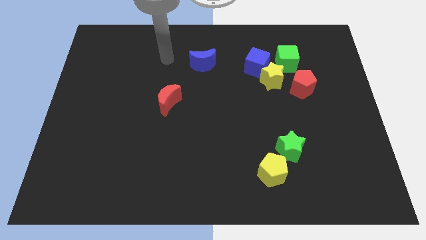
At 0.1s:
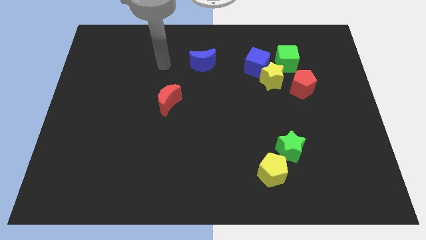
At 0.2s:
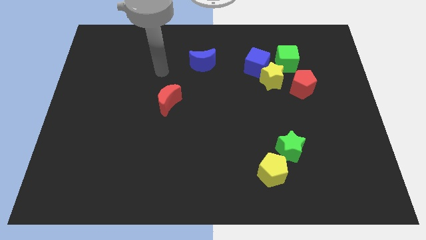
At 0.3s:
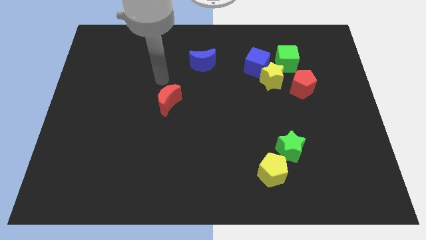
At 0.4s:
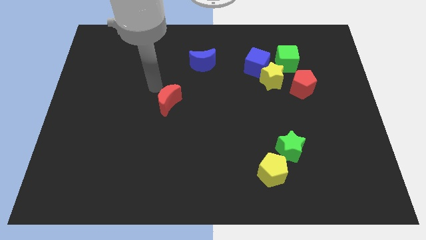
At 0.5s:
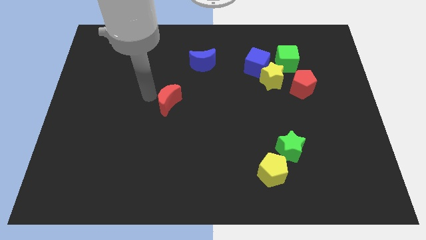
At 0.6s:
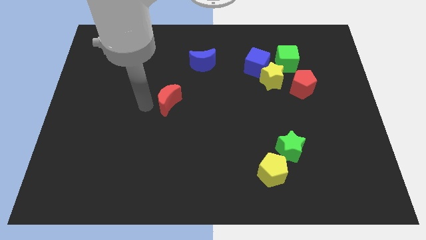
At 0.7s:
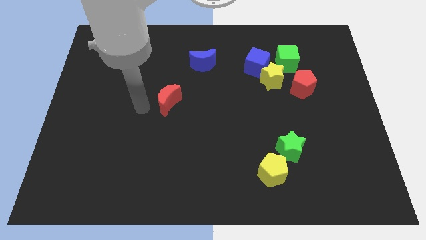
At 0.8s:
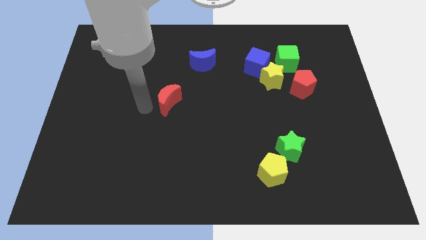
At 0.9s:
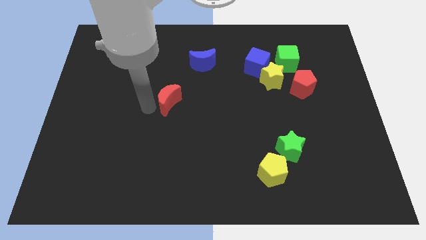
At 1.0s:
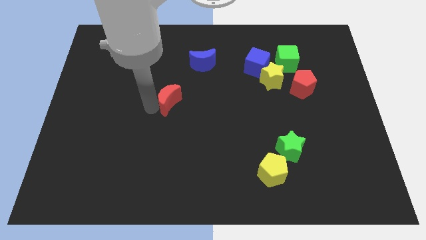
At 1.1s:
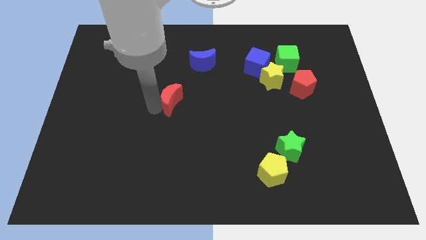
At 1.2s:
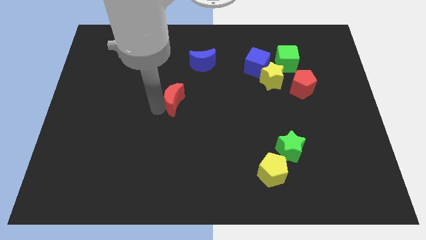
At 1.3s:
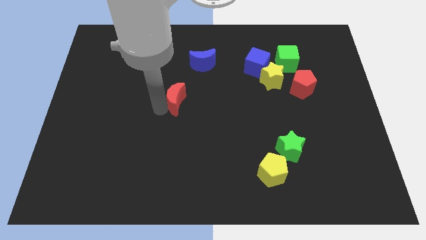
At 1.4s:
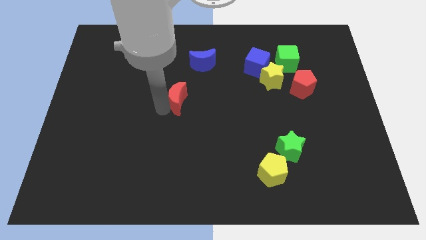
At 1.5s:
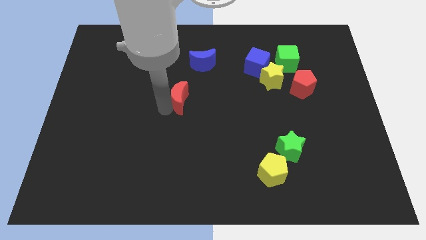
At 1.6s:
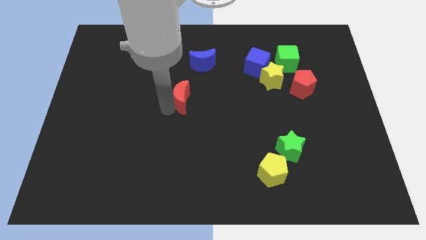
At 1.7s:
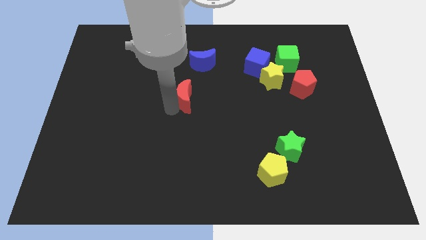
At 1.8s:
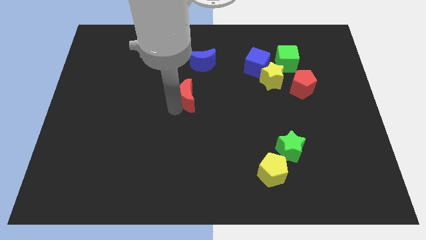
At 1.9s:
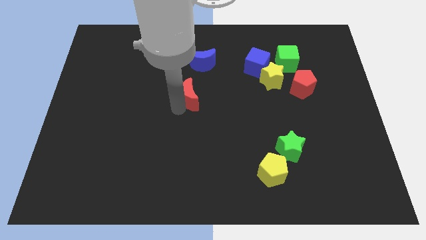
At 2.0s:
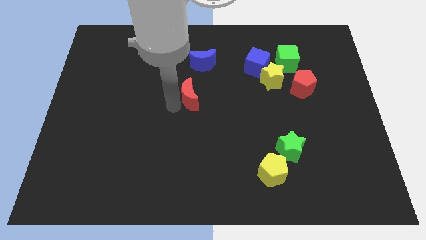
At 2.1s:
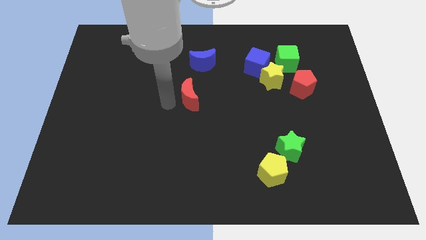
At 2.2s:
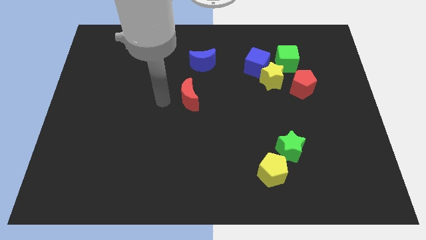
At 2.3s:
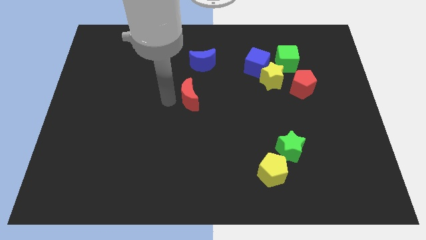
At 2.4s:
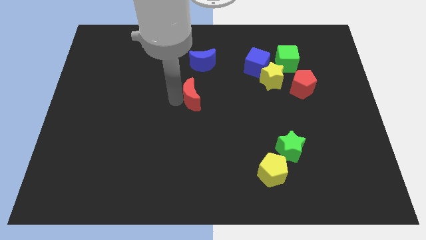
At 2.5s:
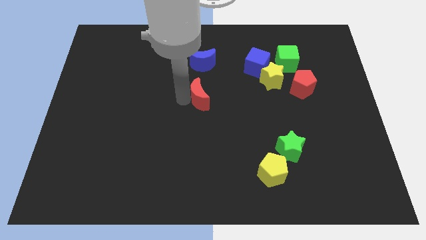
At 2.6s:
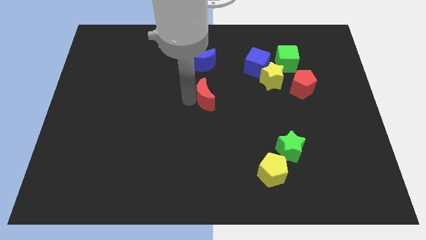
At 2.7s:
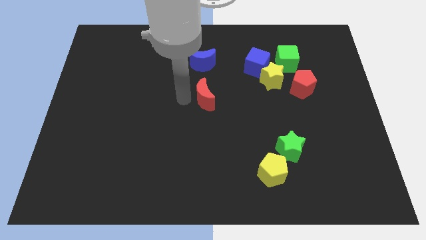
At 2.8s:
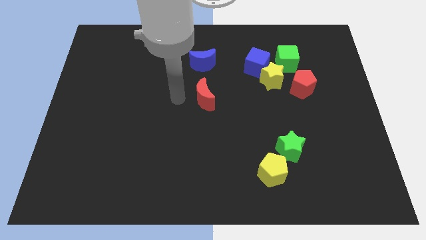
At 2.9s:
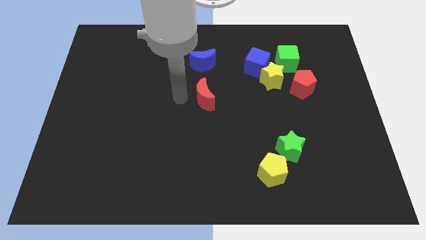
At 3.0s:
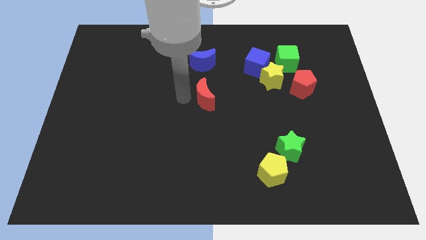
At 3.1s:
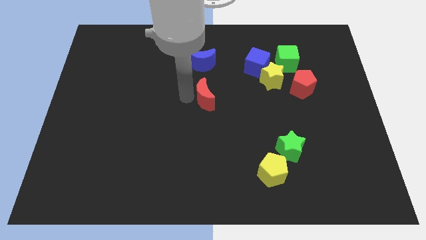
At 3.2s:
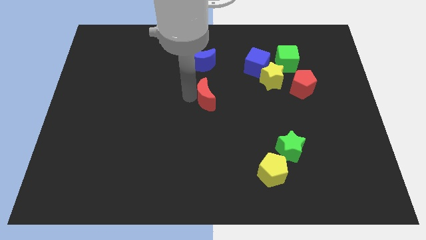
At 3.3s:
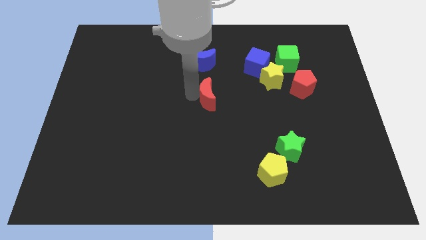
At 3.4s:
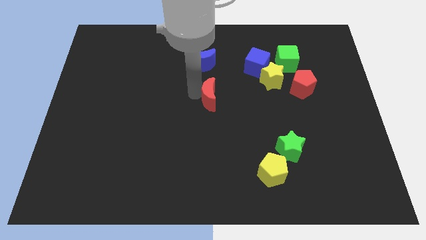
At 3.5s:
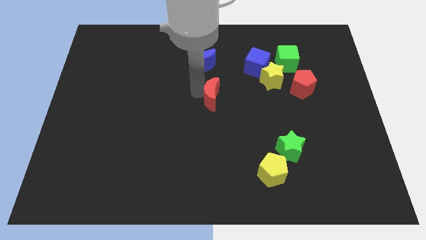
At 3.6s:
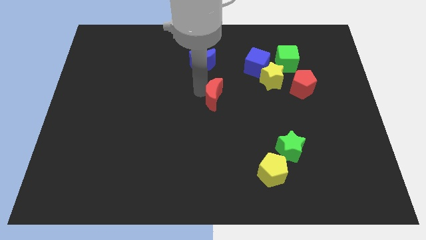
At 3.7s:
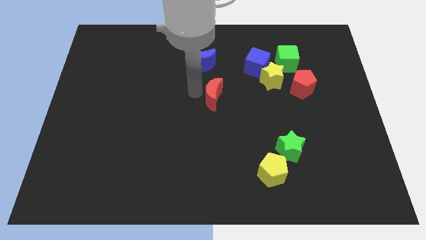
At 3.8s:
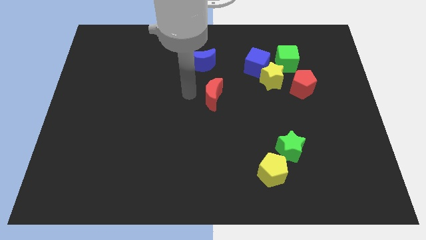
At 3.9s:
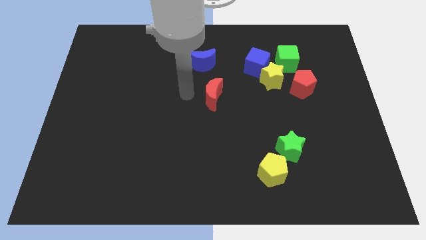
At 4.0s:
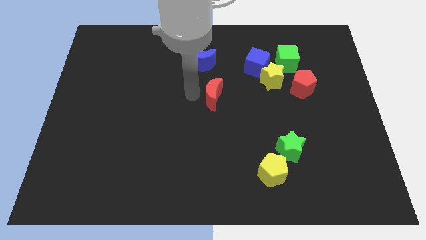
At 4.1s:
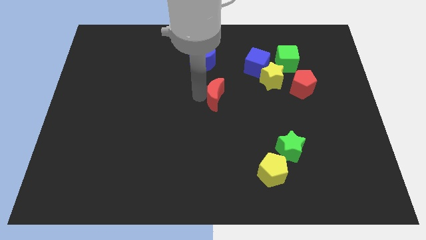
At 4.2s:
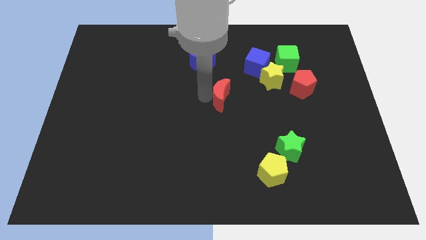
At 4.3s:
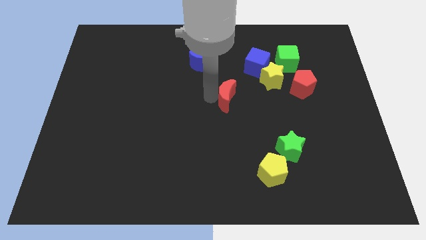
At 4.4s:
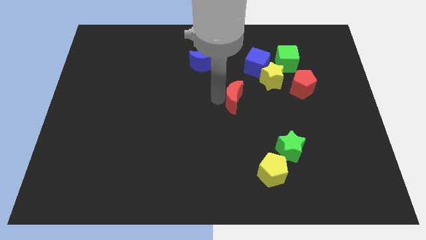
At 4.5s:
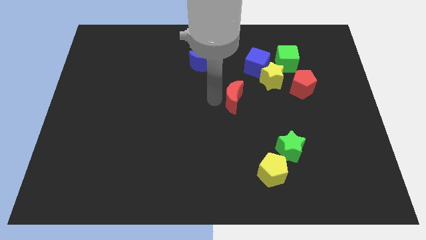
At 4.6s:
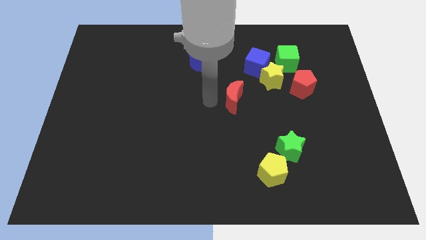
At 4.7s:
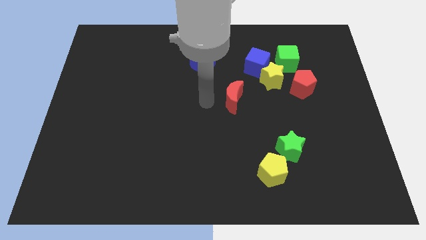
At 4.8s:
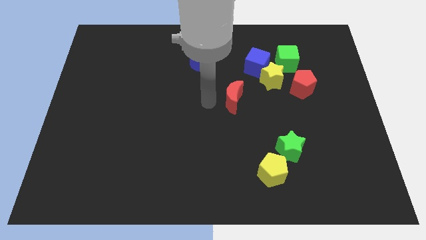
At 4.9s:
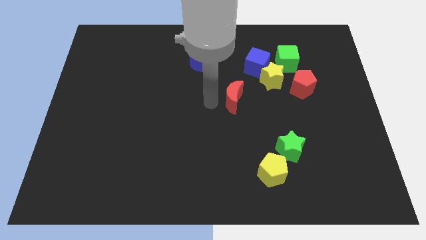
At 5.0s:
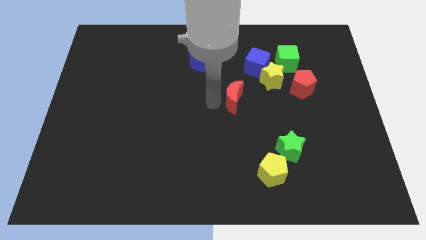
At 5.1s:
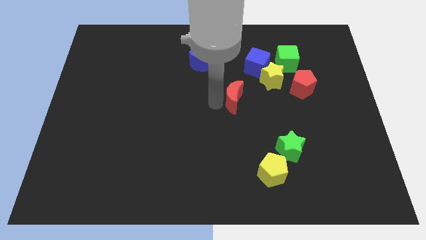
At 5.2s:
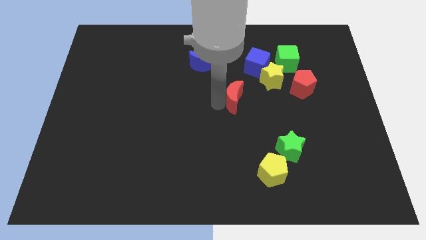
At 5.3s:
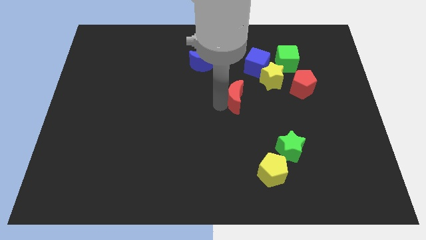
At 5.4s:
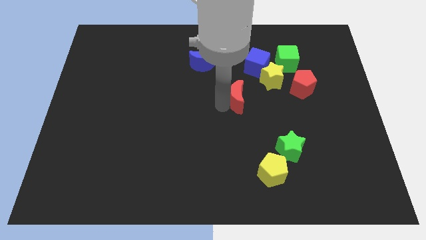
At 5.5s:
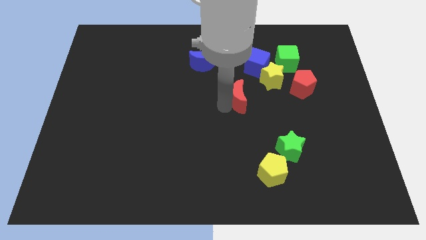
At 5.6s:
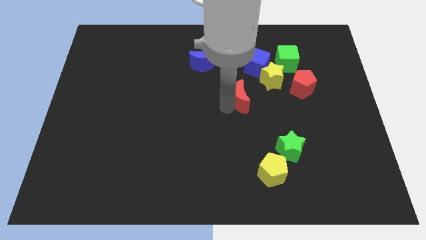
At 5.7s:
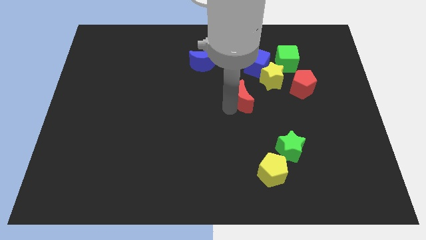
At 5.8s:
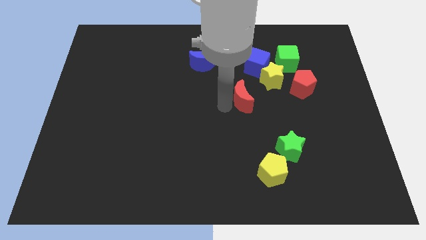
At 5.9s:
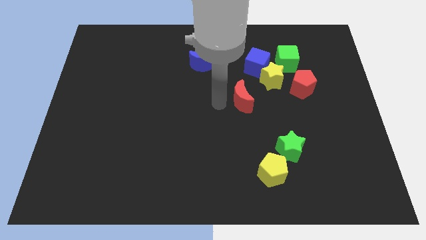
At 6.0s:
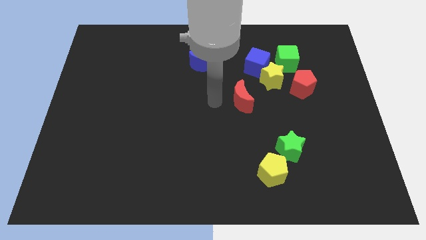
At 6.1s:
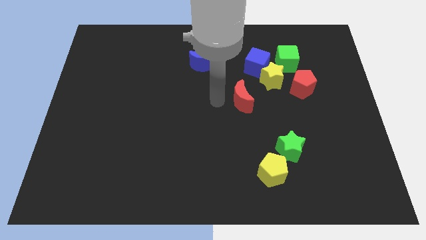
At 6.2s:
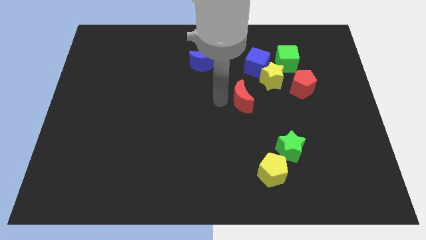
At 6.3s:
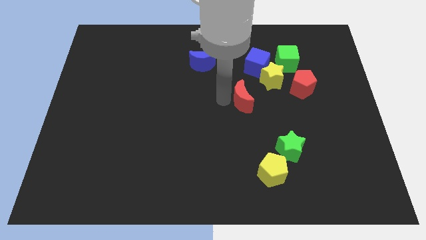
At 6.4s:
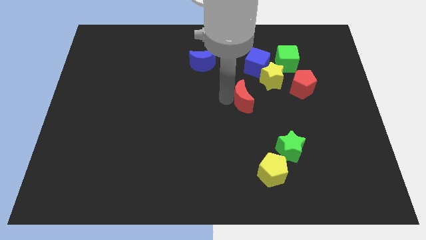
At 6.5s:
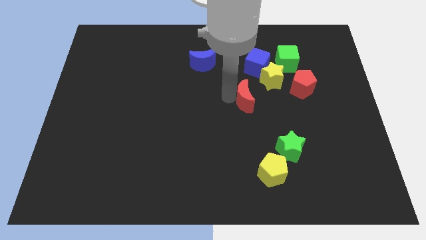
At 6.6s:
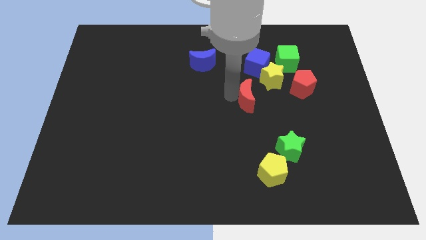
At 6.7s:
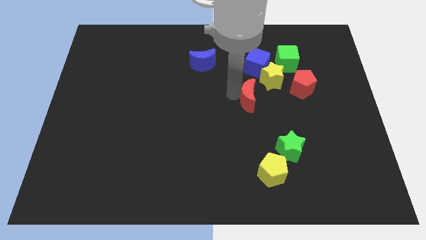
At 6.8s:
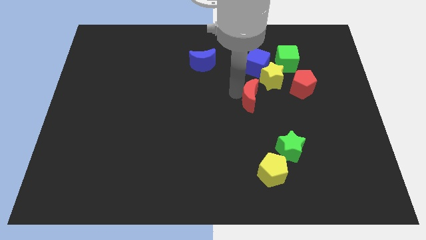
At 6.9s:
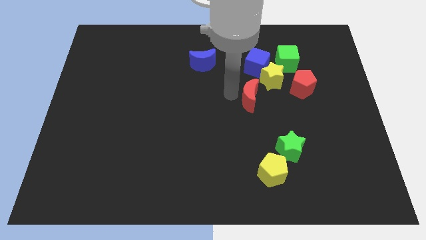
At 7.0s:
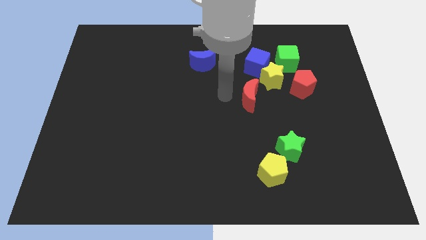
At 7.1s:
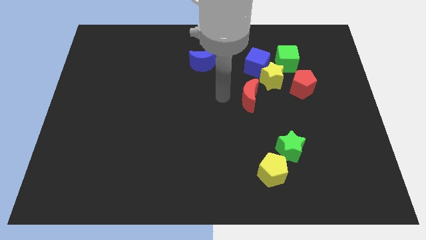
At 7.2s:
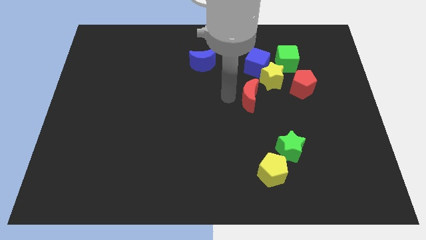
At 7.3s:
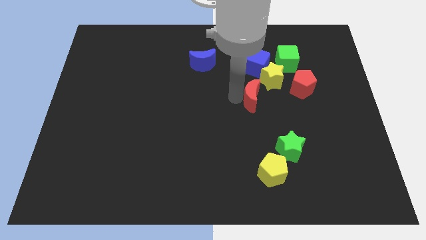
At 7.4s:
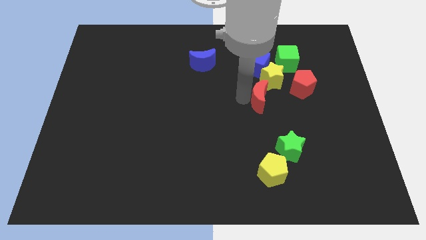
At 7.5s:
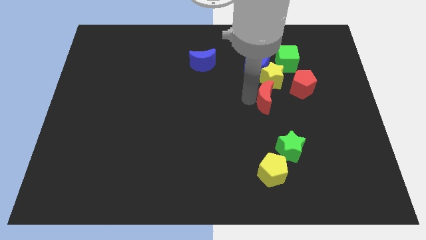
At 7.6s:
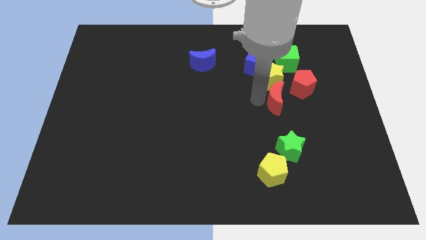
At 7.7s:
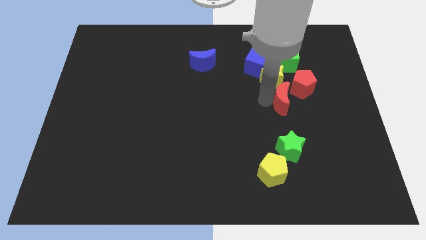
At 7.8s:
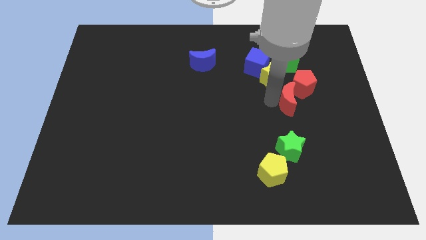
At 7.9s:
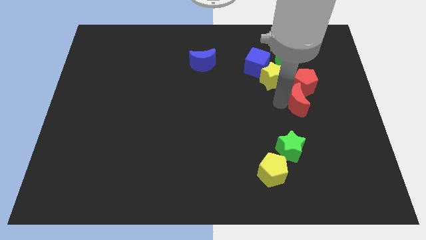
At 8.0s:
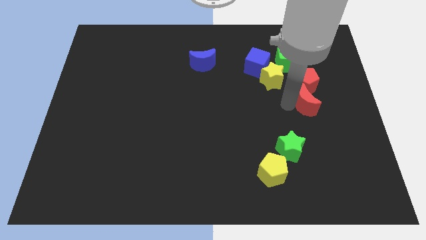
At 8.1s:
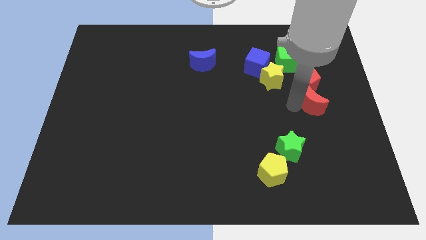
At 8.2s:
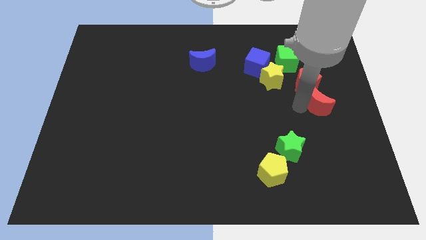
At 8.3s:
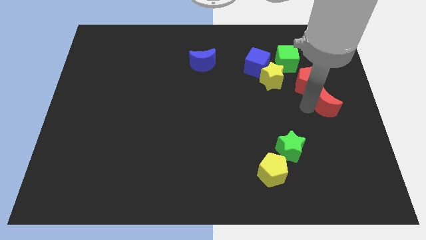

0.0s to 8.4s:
push the red moon to the right side
